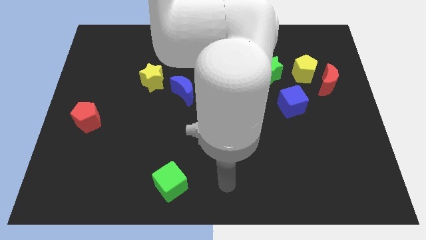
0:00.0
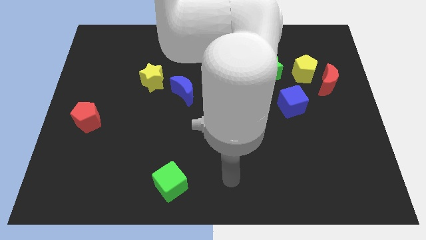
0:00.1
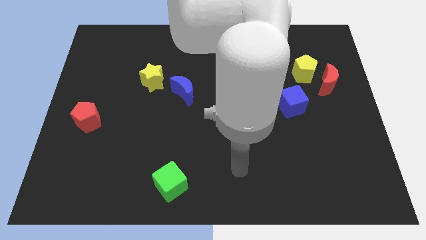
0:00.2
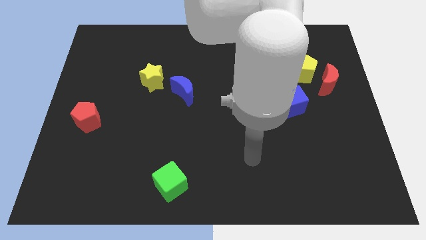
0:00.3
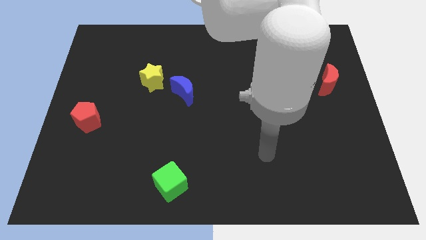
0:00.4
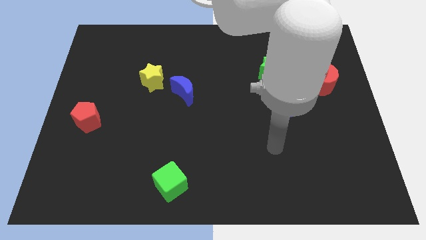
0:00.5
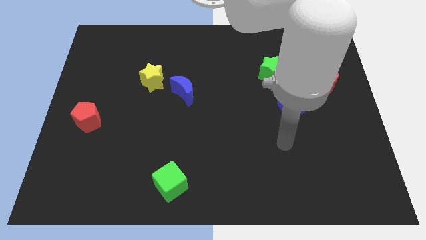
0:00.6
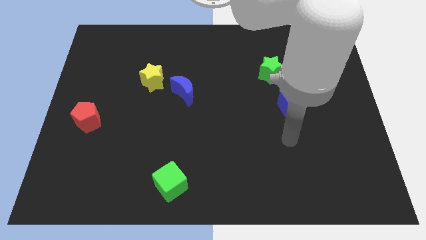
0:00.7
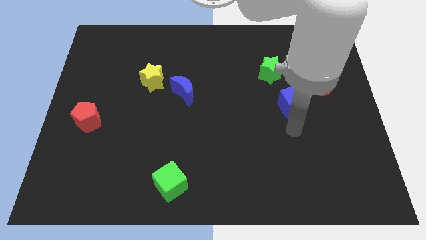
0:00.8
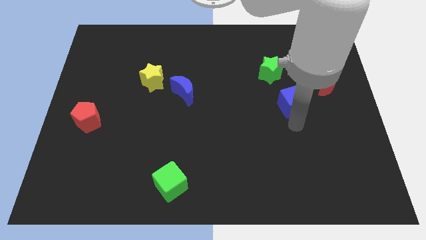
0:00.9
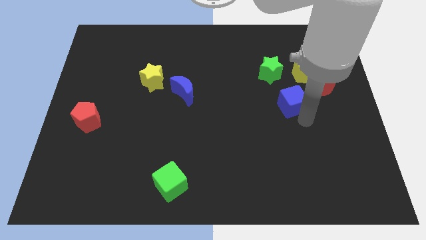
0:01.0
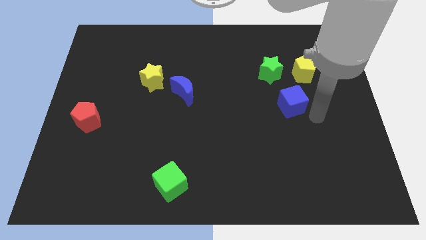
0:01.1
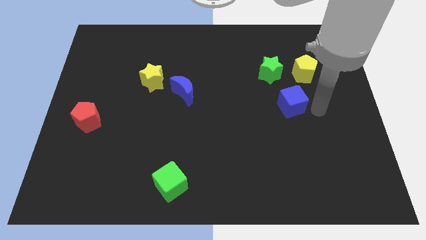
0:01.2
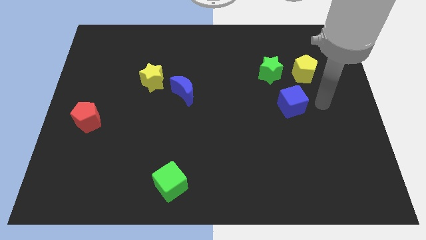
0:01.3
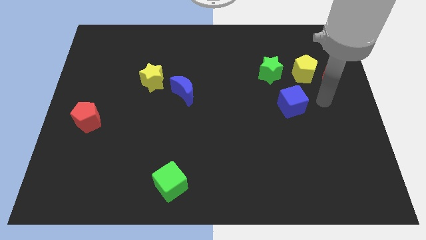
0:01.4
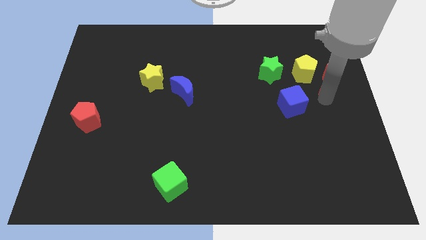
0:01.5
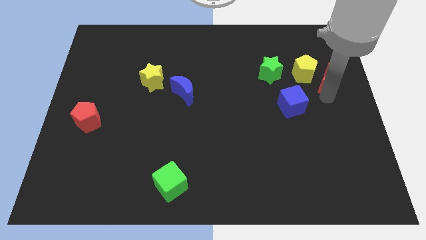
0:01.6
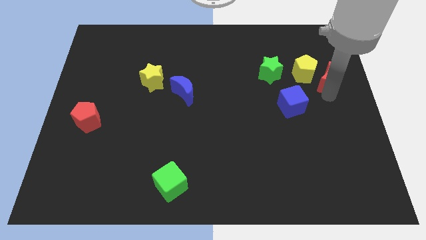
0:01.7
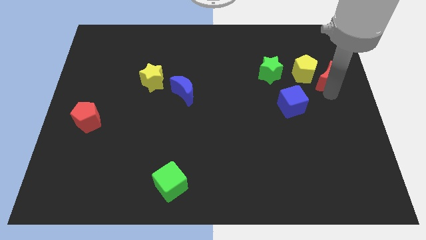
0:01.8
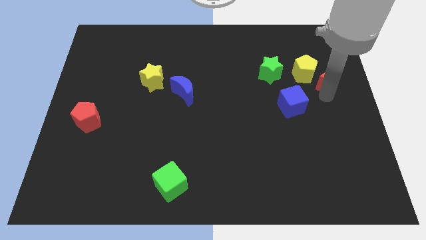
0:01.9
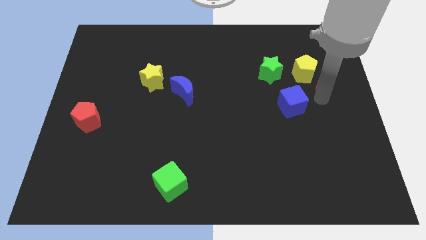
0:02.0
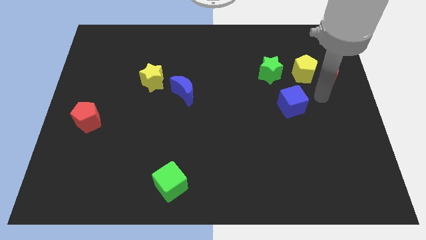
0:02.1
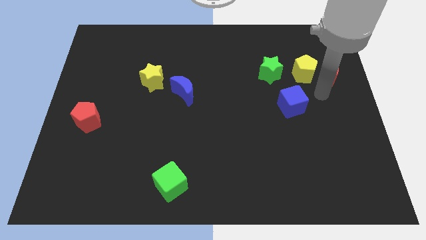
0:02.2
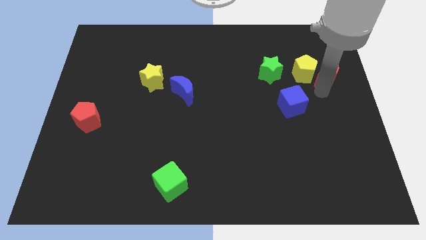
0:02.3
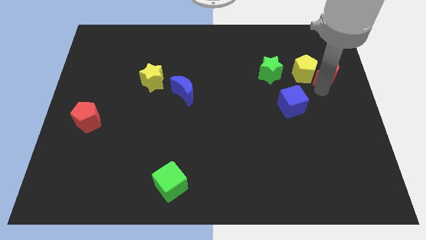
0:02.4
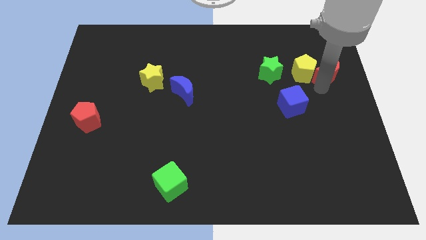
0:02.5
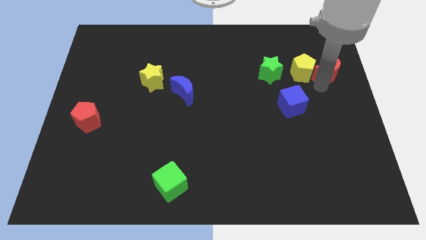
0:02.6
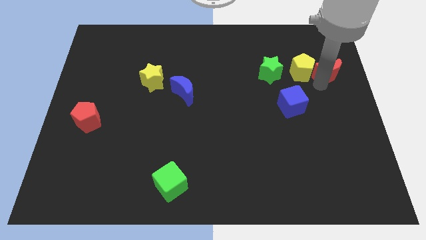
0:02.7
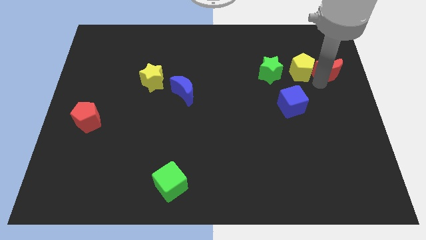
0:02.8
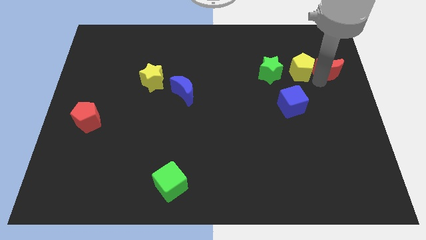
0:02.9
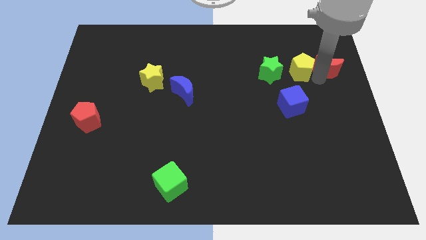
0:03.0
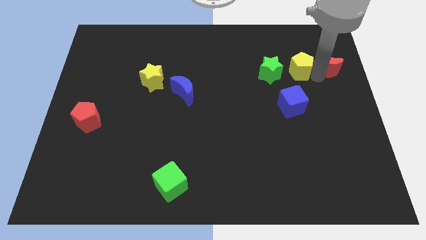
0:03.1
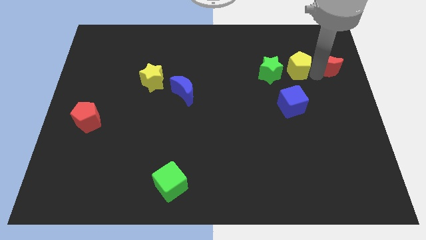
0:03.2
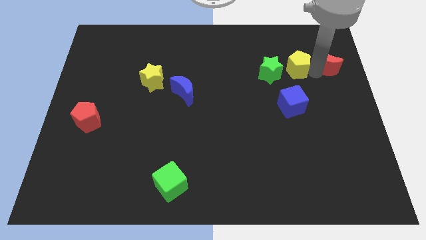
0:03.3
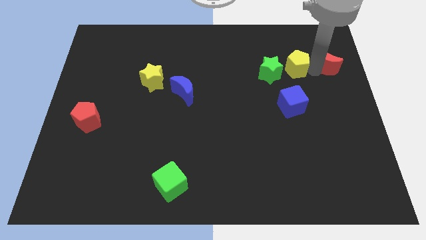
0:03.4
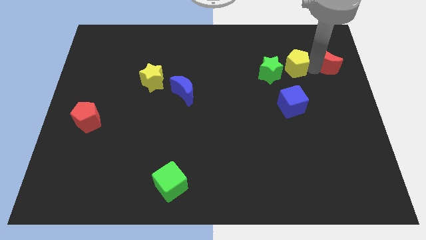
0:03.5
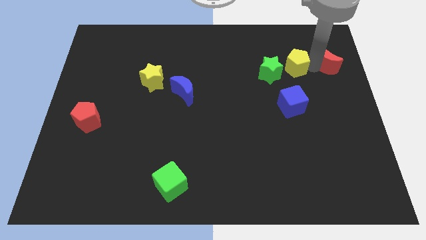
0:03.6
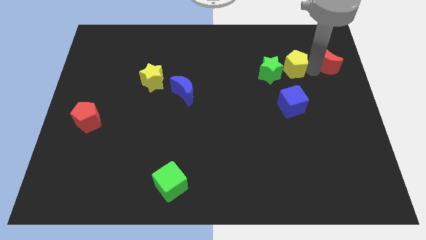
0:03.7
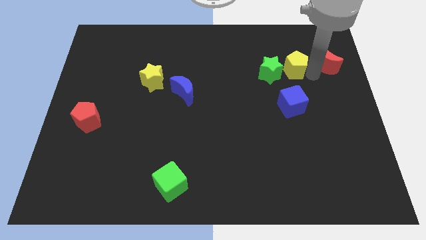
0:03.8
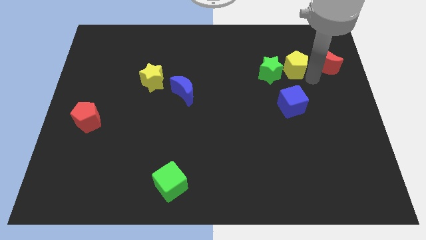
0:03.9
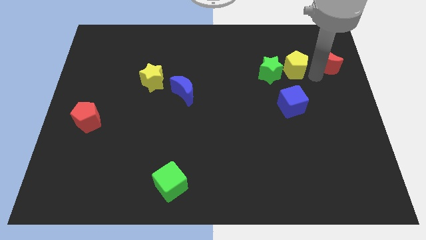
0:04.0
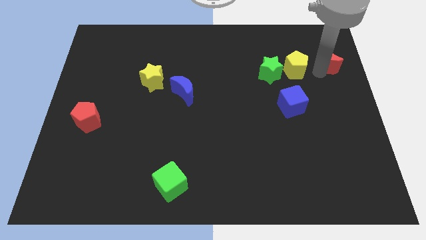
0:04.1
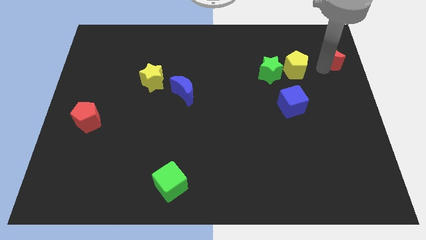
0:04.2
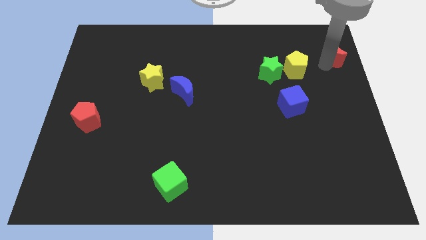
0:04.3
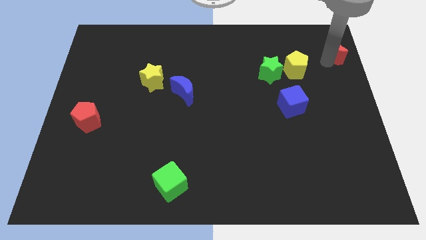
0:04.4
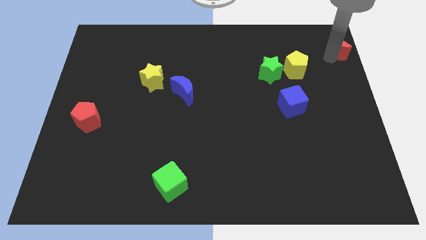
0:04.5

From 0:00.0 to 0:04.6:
move the red moon to the top right of the board

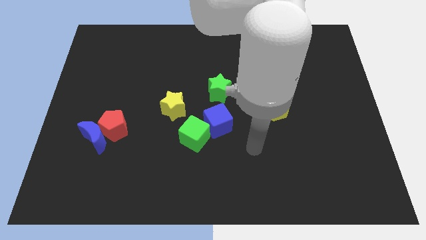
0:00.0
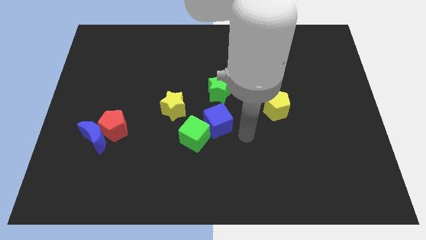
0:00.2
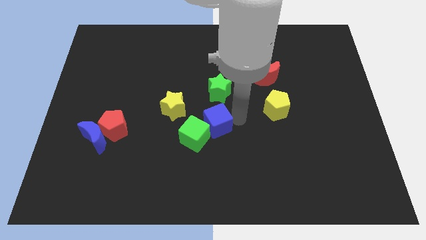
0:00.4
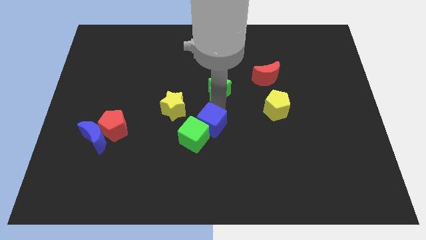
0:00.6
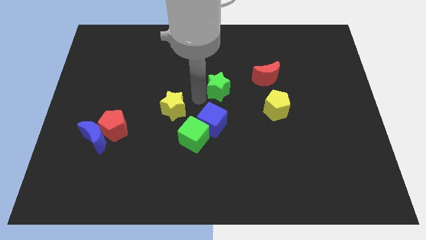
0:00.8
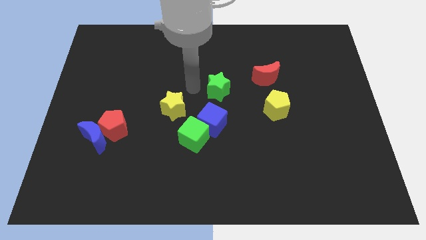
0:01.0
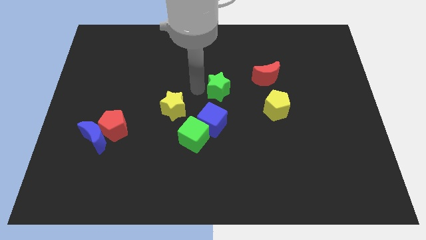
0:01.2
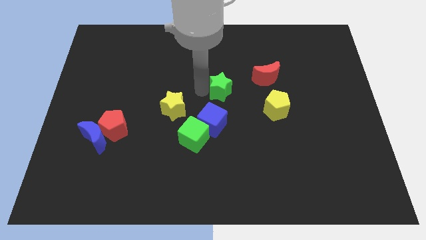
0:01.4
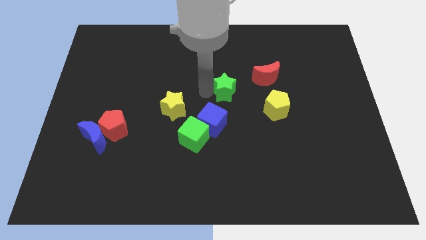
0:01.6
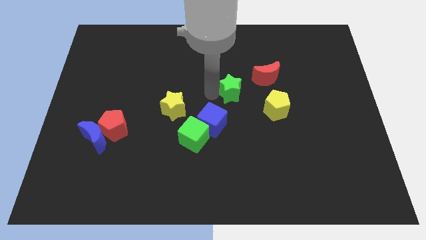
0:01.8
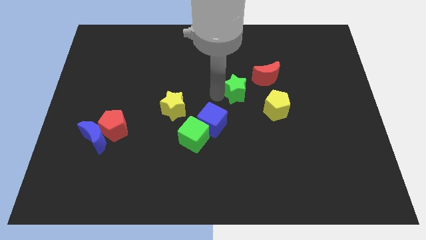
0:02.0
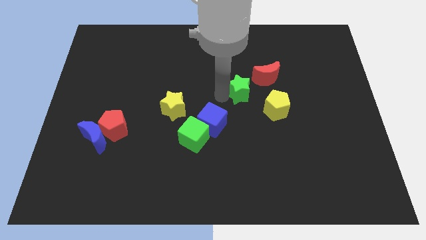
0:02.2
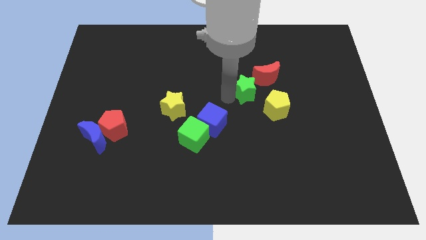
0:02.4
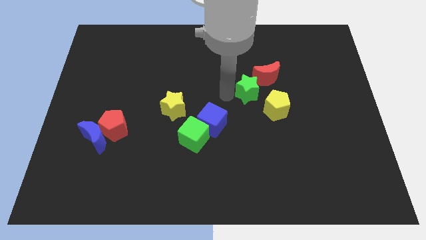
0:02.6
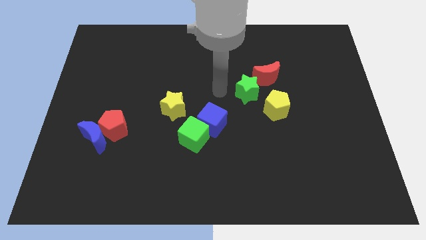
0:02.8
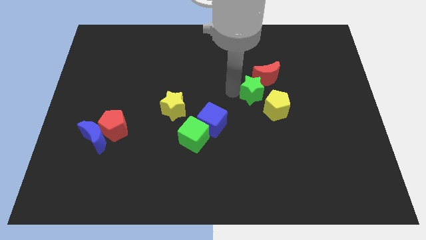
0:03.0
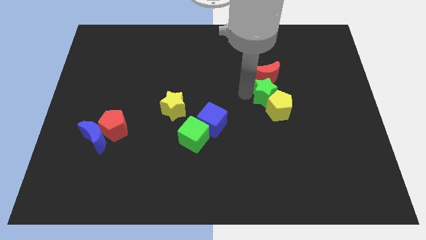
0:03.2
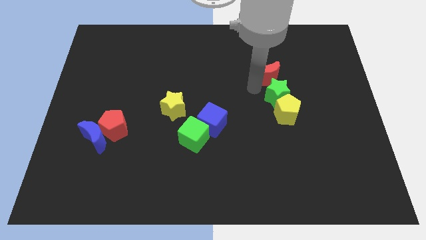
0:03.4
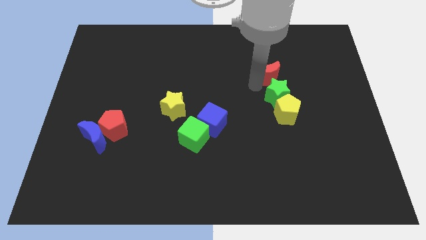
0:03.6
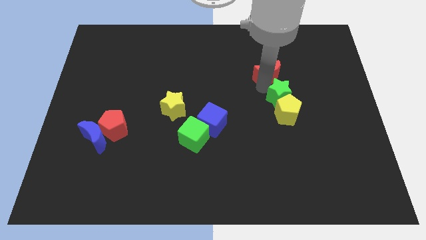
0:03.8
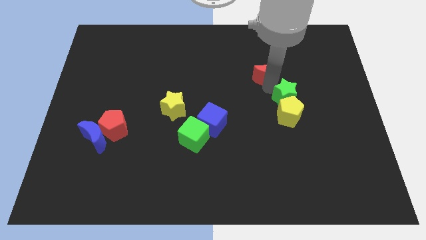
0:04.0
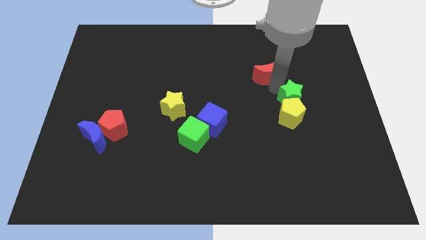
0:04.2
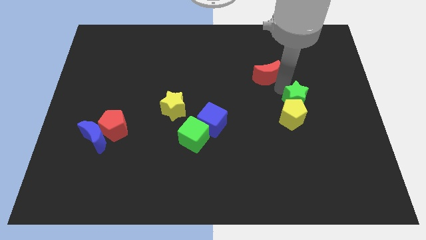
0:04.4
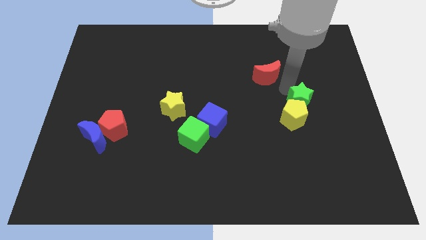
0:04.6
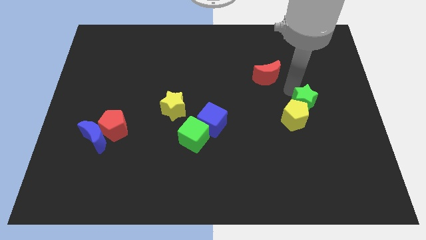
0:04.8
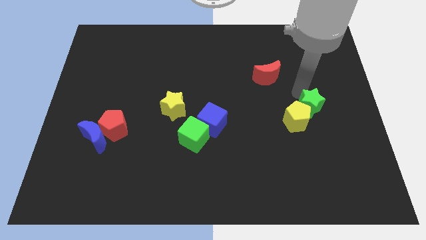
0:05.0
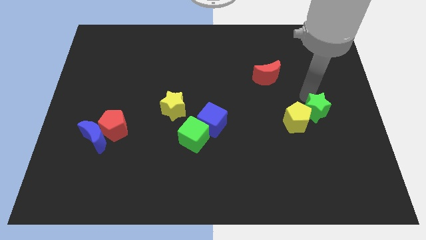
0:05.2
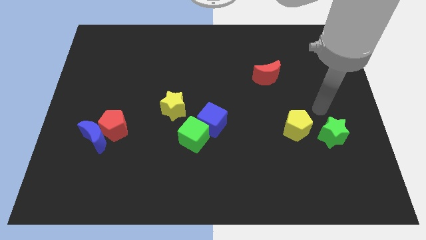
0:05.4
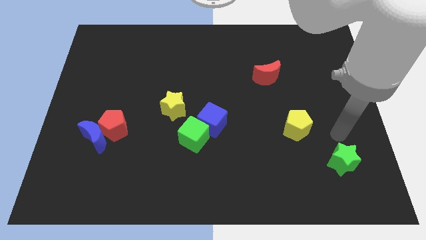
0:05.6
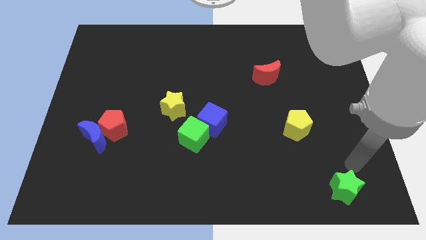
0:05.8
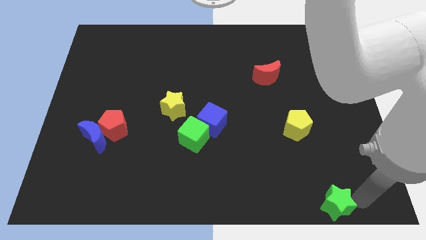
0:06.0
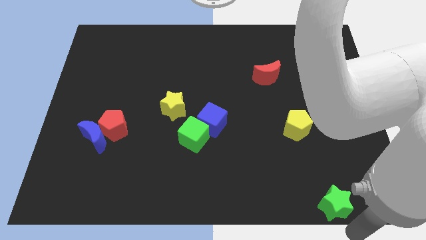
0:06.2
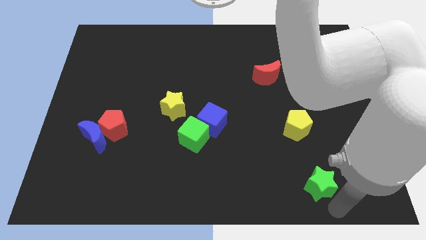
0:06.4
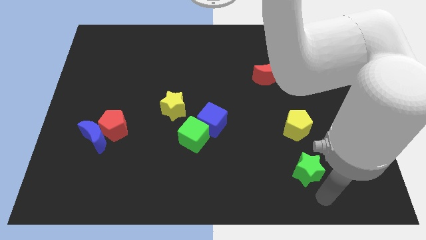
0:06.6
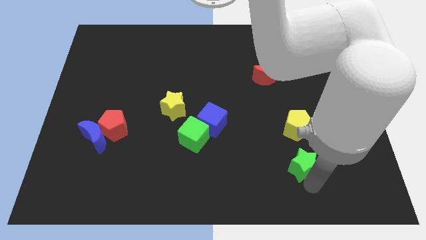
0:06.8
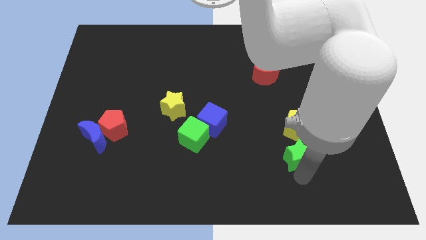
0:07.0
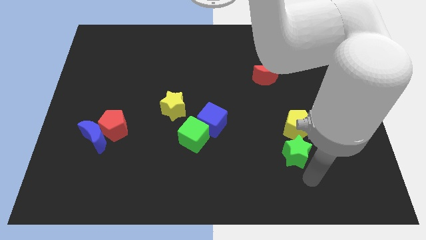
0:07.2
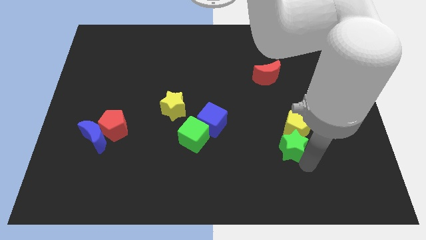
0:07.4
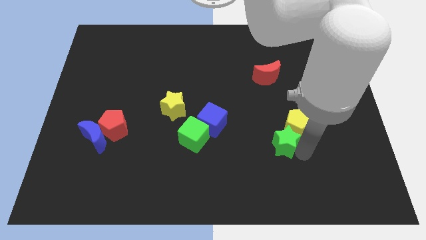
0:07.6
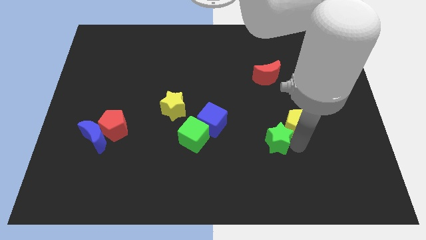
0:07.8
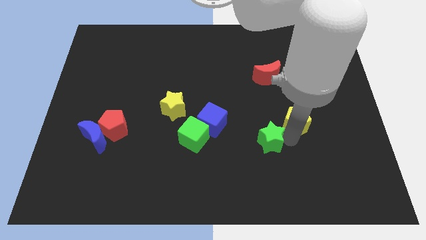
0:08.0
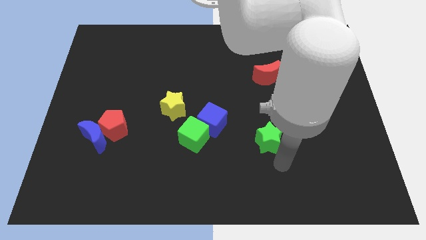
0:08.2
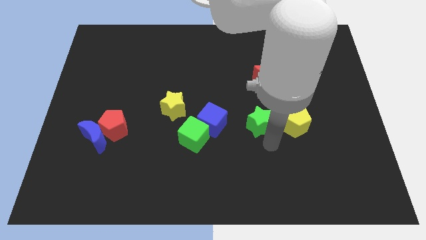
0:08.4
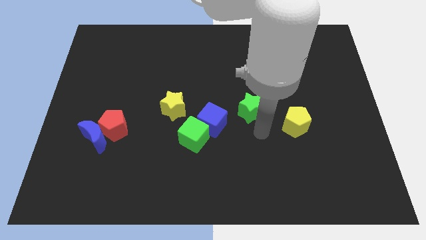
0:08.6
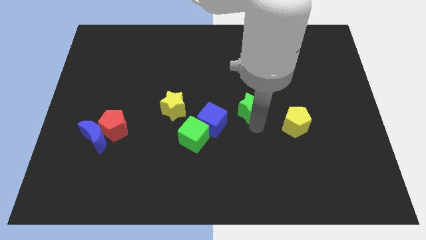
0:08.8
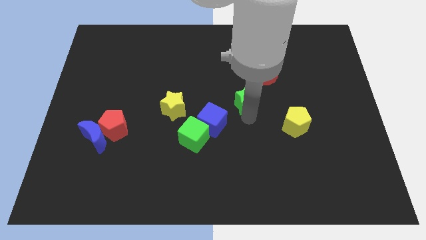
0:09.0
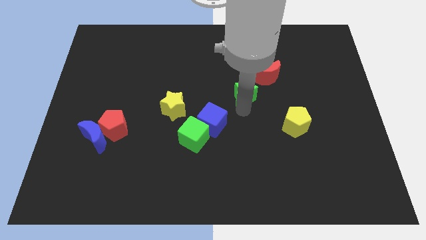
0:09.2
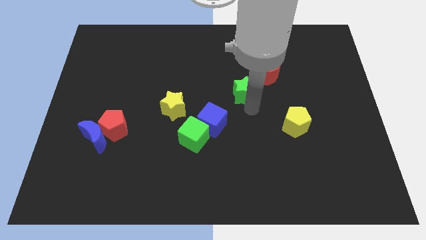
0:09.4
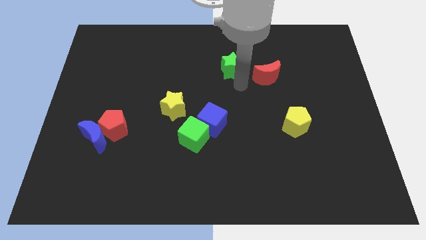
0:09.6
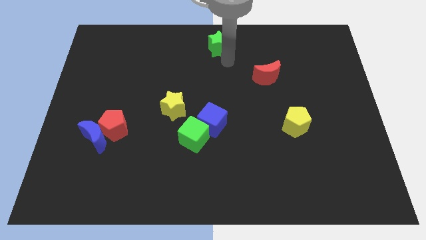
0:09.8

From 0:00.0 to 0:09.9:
slide the green star to the towards your base
